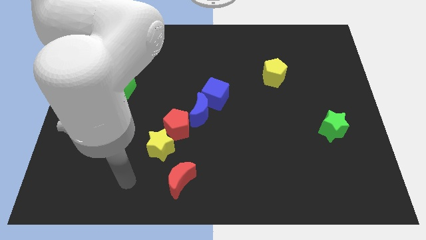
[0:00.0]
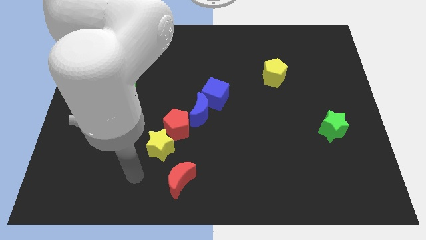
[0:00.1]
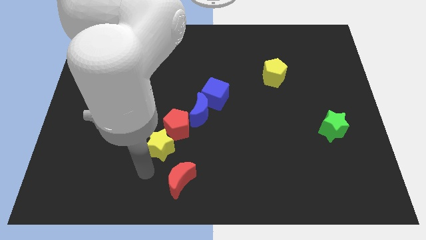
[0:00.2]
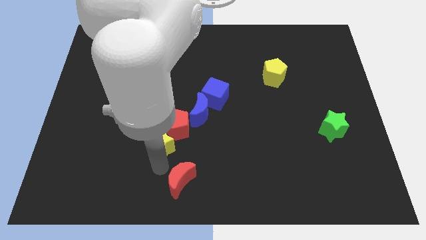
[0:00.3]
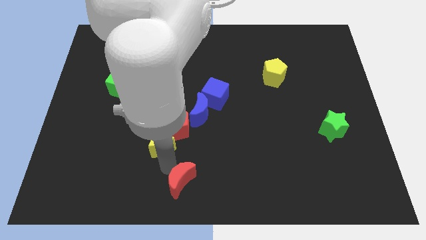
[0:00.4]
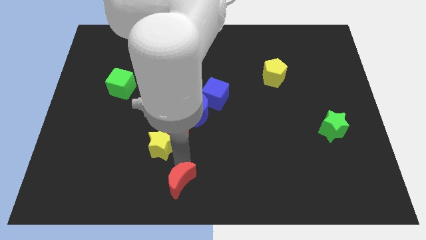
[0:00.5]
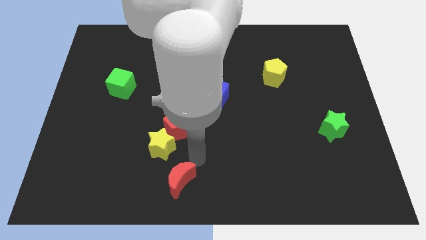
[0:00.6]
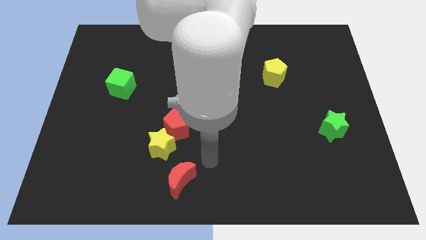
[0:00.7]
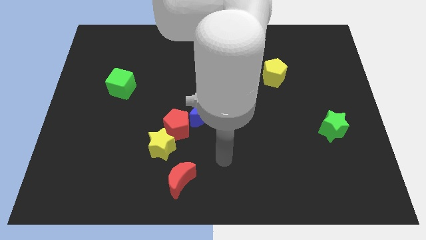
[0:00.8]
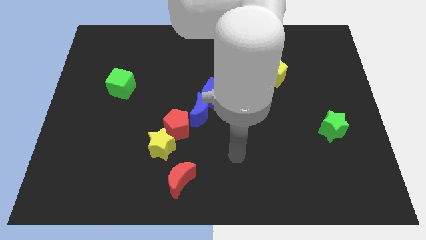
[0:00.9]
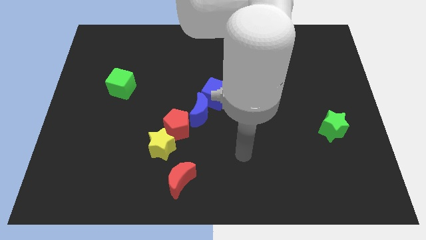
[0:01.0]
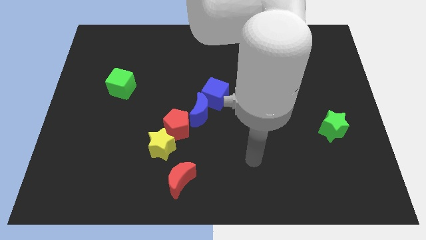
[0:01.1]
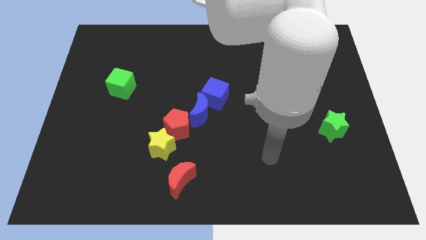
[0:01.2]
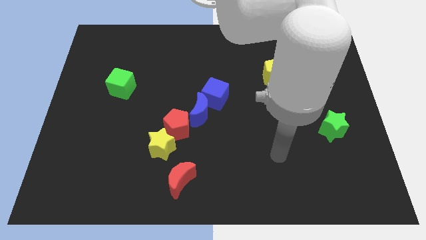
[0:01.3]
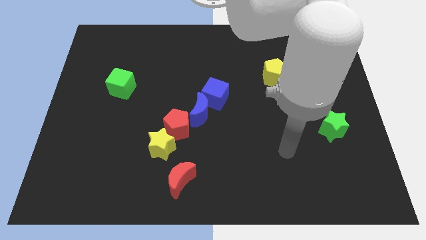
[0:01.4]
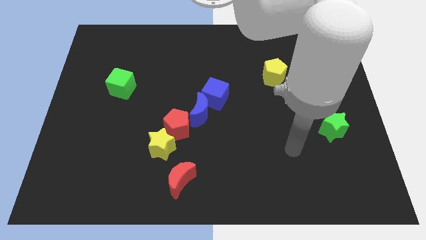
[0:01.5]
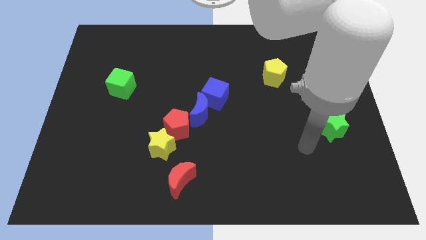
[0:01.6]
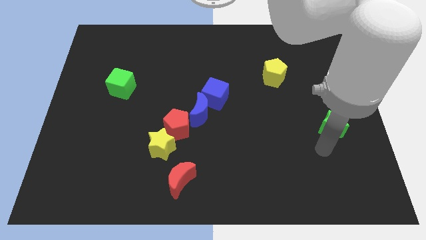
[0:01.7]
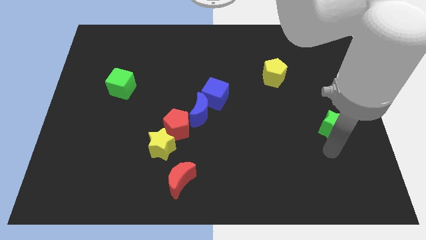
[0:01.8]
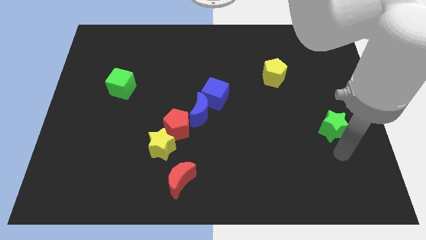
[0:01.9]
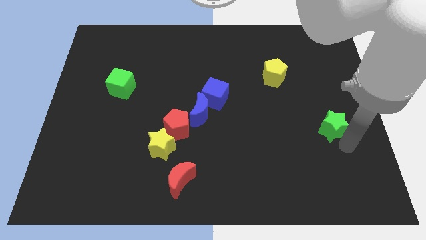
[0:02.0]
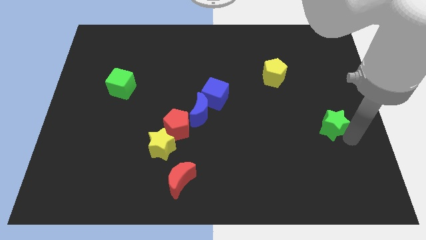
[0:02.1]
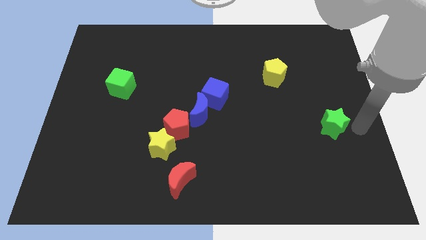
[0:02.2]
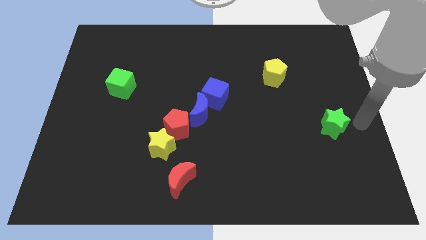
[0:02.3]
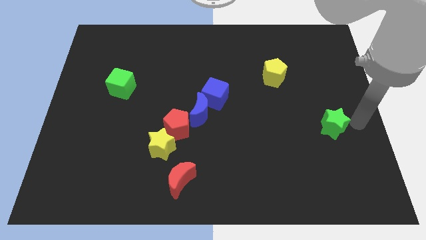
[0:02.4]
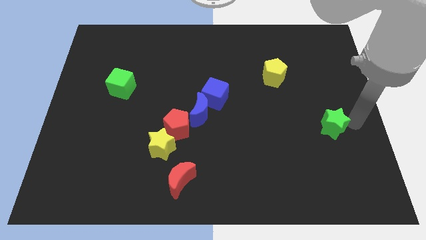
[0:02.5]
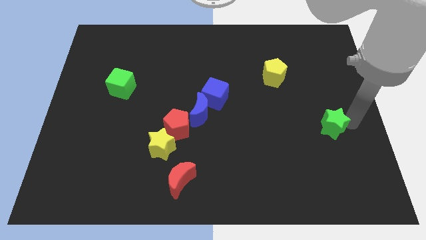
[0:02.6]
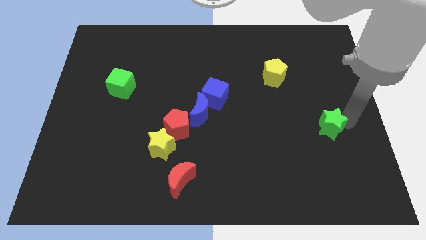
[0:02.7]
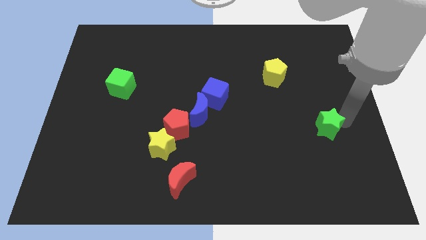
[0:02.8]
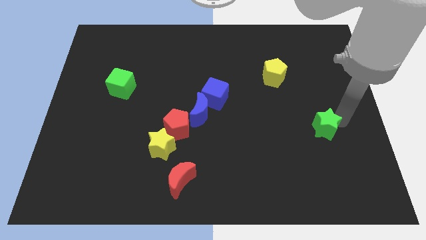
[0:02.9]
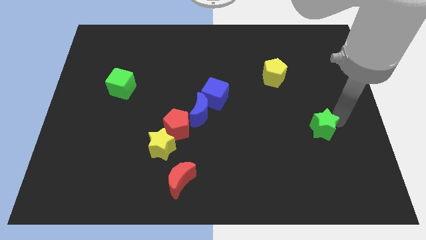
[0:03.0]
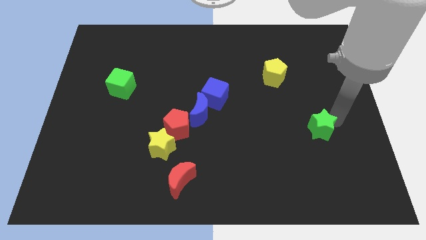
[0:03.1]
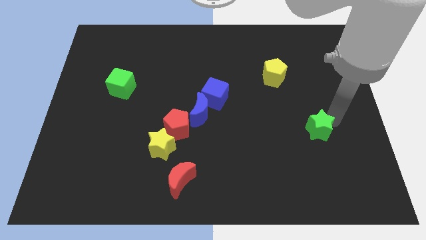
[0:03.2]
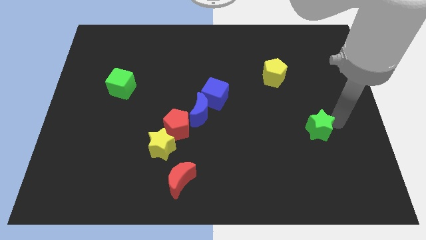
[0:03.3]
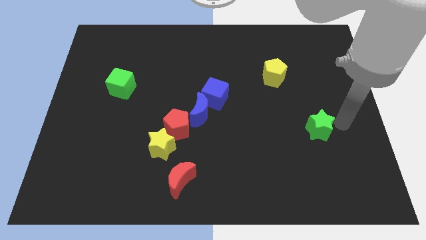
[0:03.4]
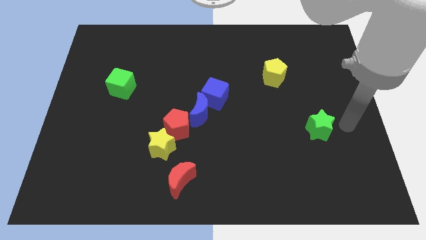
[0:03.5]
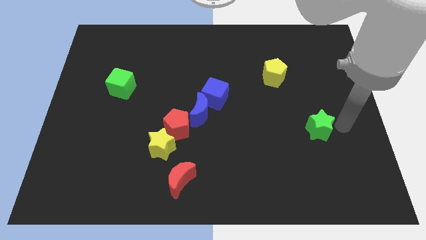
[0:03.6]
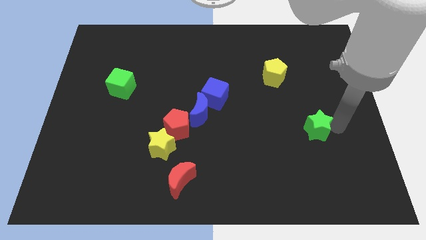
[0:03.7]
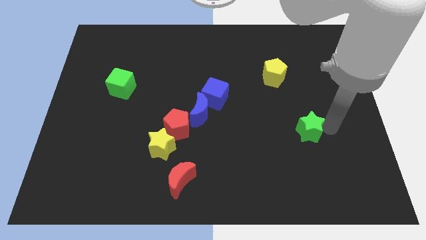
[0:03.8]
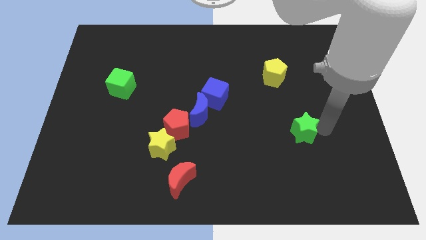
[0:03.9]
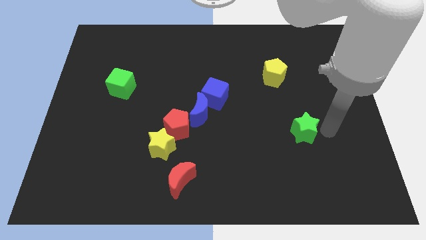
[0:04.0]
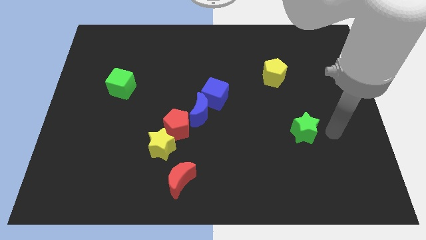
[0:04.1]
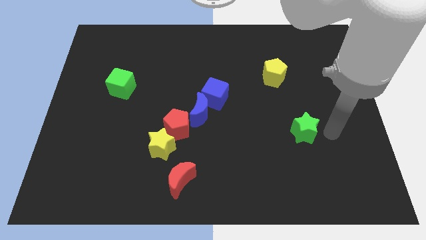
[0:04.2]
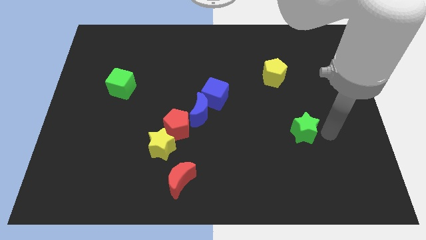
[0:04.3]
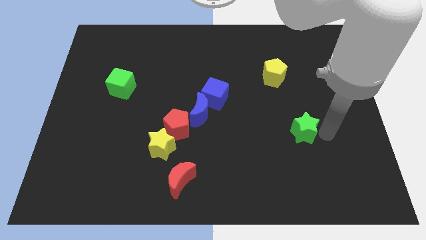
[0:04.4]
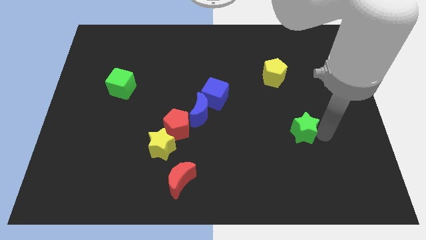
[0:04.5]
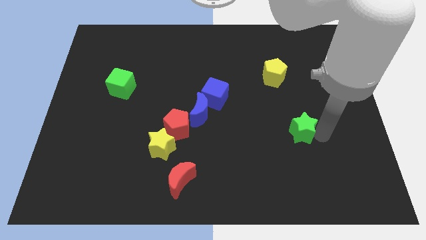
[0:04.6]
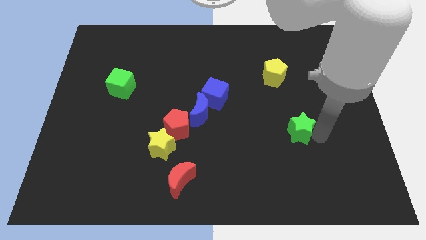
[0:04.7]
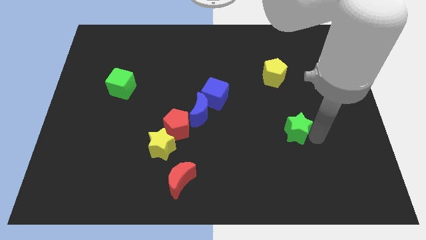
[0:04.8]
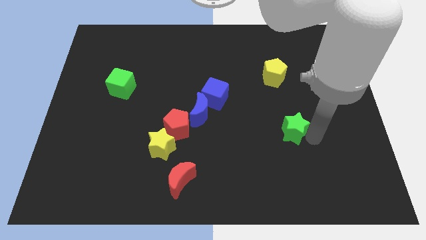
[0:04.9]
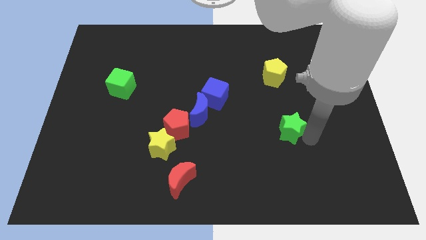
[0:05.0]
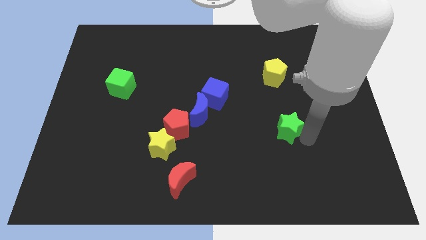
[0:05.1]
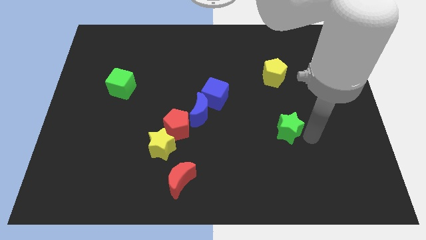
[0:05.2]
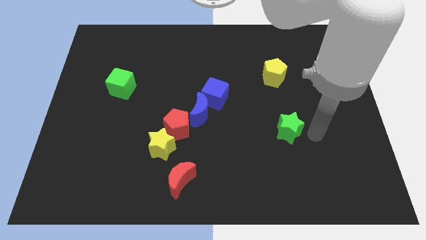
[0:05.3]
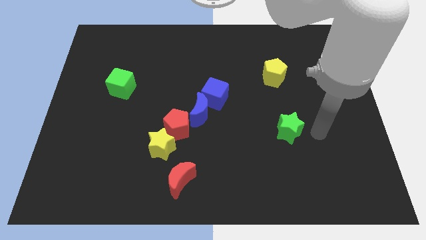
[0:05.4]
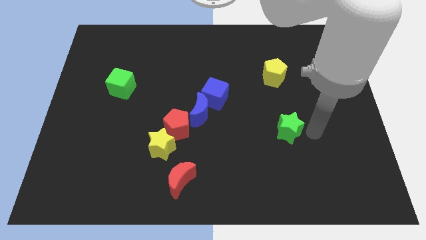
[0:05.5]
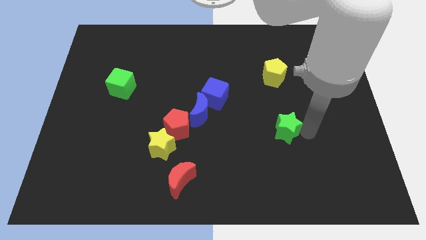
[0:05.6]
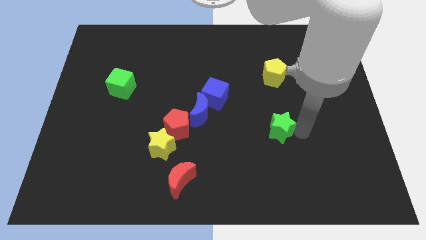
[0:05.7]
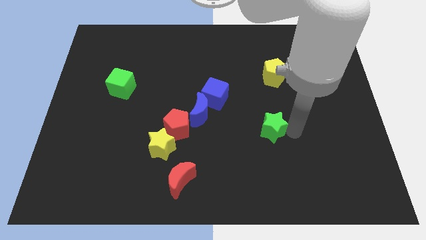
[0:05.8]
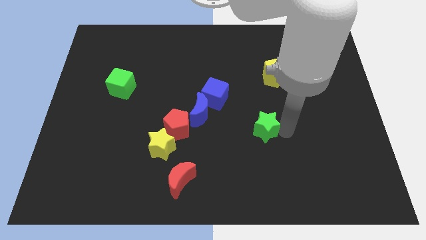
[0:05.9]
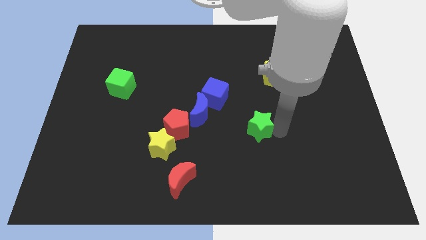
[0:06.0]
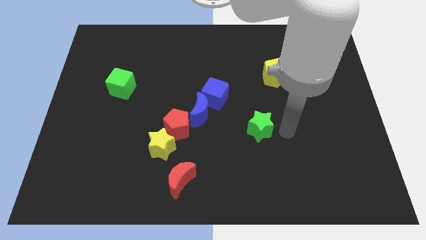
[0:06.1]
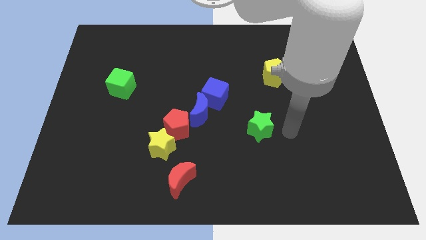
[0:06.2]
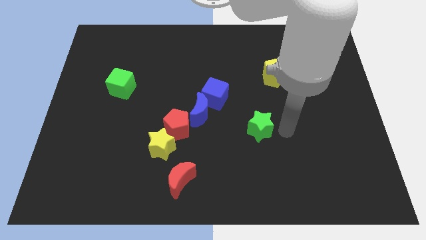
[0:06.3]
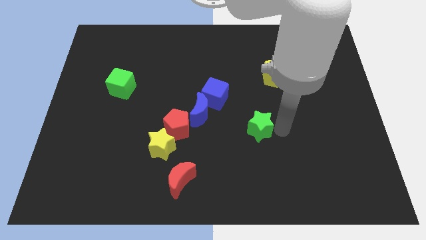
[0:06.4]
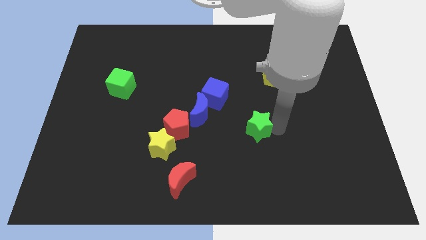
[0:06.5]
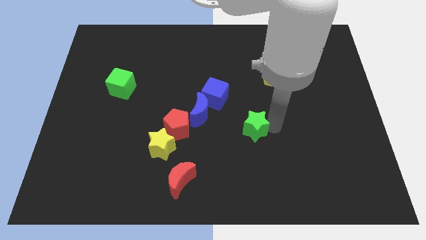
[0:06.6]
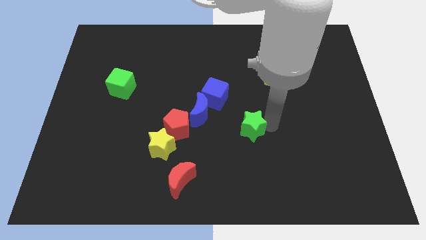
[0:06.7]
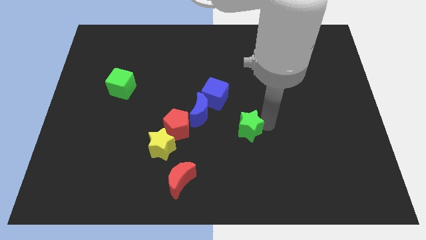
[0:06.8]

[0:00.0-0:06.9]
push the green star just right of the red pentagon
